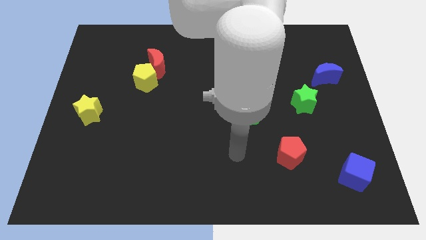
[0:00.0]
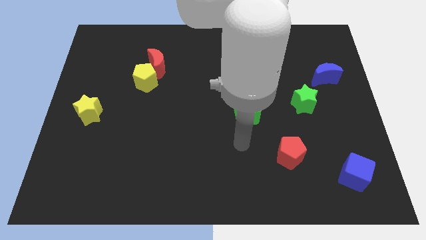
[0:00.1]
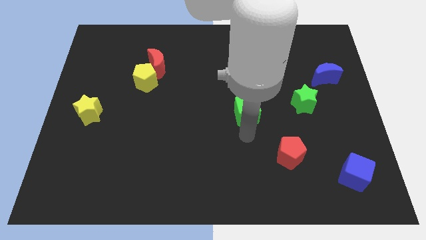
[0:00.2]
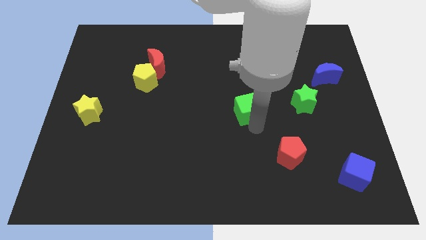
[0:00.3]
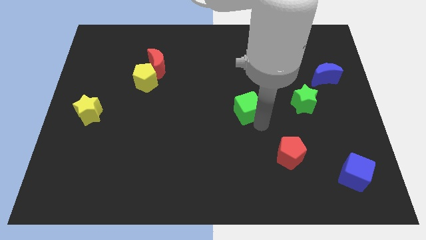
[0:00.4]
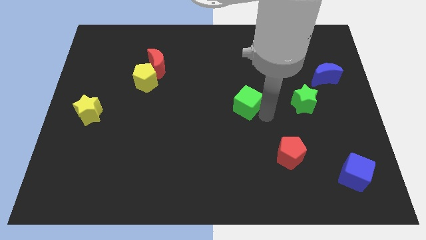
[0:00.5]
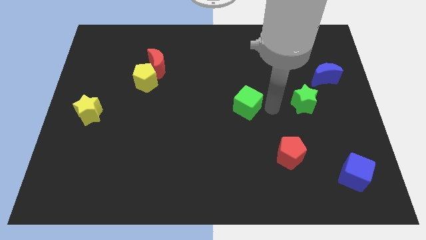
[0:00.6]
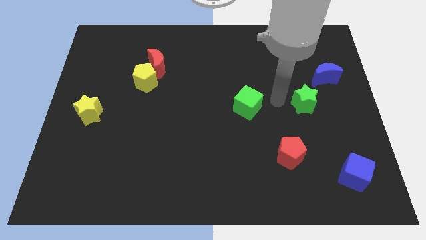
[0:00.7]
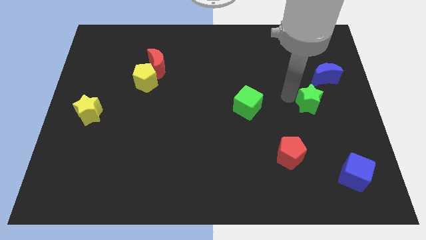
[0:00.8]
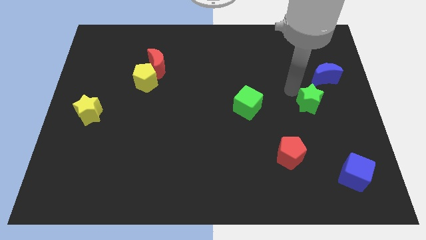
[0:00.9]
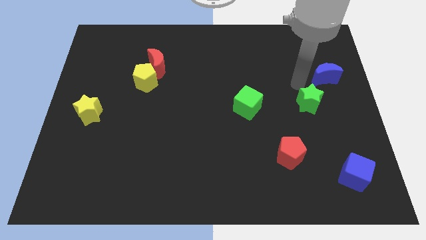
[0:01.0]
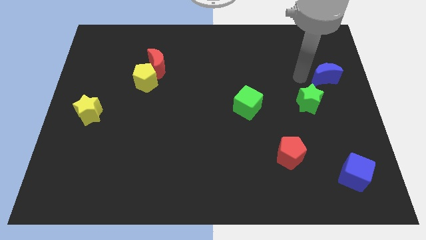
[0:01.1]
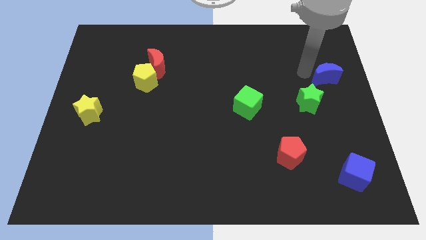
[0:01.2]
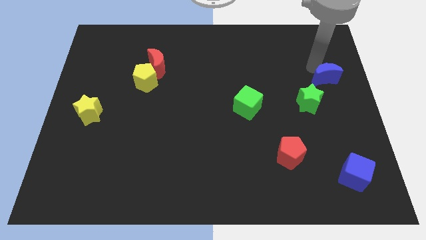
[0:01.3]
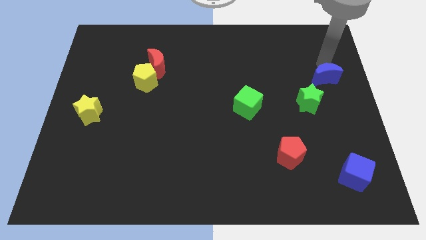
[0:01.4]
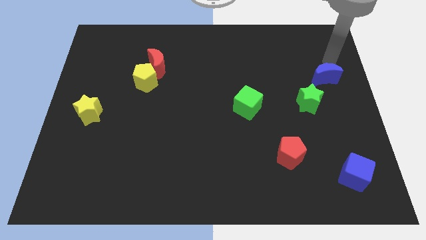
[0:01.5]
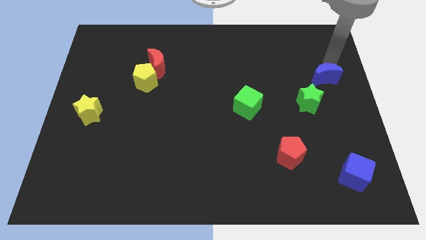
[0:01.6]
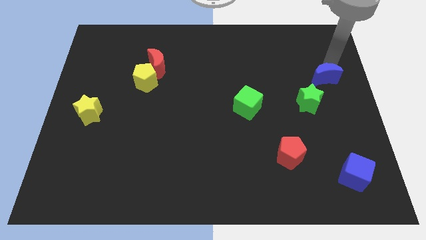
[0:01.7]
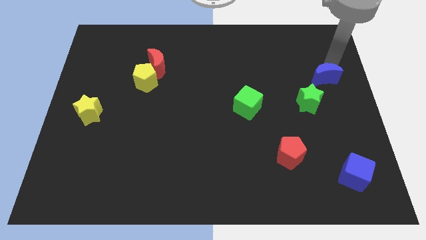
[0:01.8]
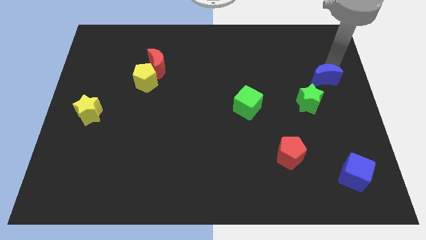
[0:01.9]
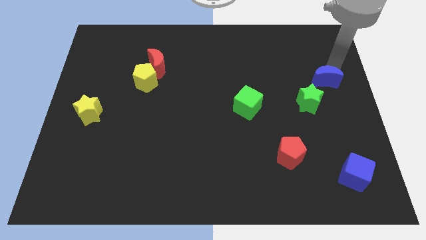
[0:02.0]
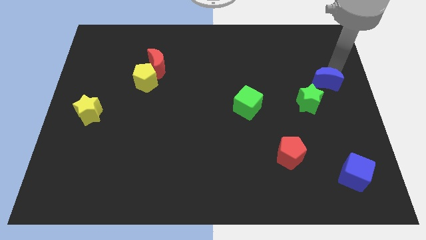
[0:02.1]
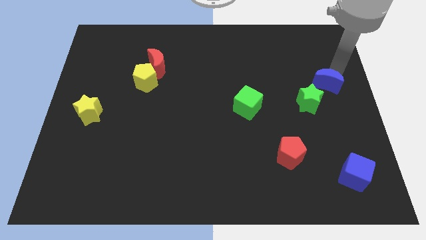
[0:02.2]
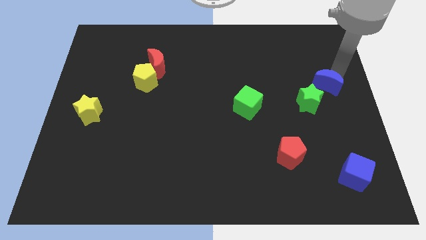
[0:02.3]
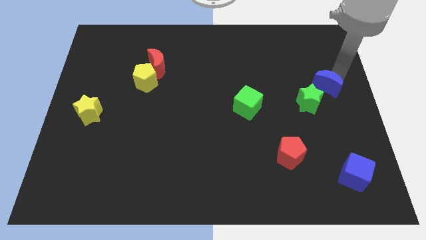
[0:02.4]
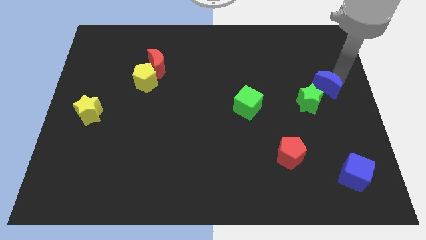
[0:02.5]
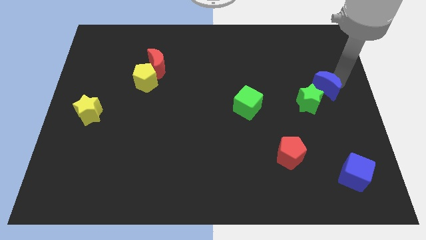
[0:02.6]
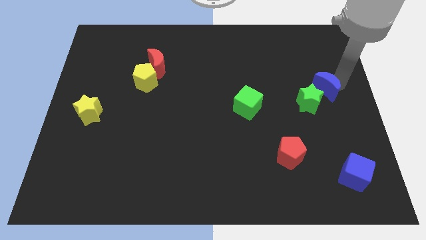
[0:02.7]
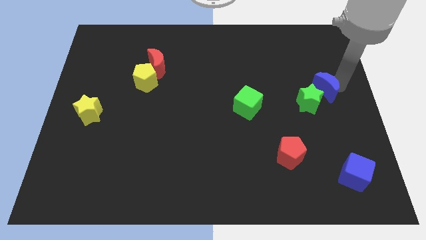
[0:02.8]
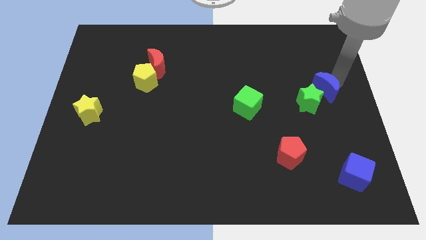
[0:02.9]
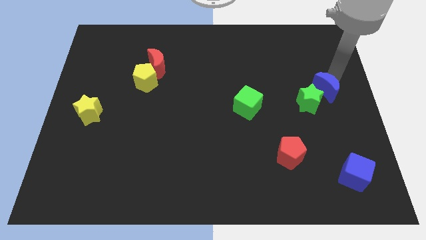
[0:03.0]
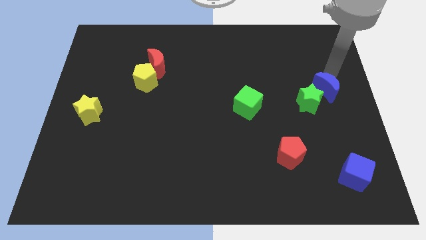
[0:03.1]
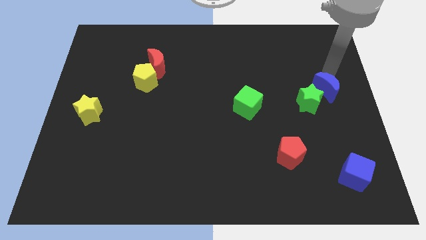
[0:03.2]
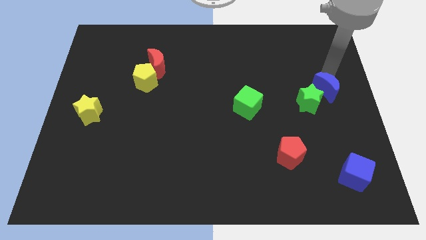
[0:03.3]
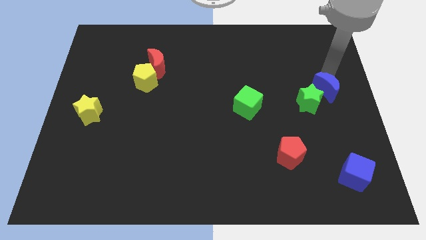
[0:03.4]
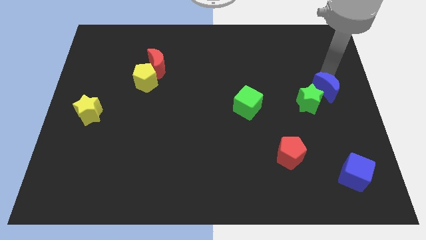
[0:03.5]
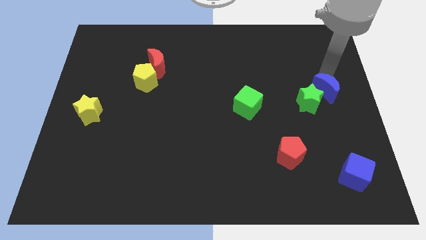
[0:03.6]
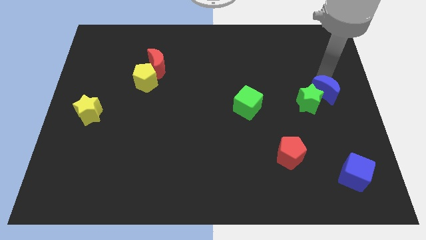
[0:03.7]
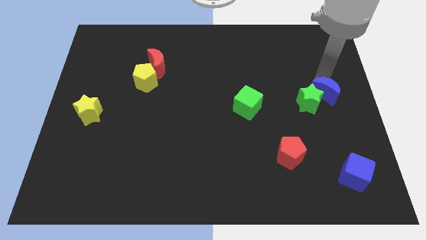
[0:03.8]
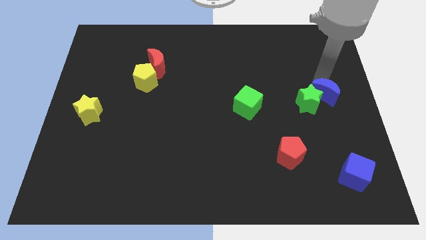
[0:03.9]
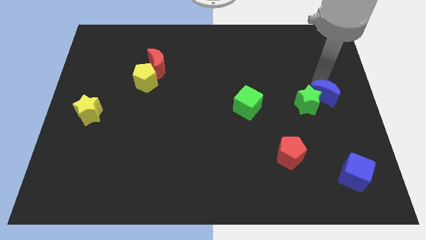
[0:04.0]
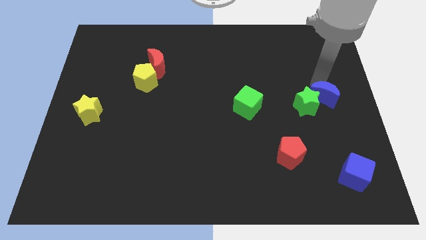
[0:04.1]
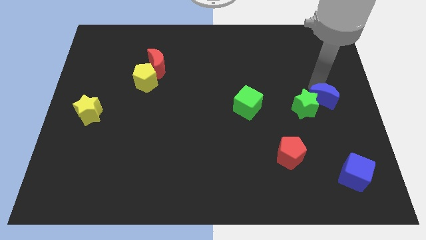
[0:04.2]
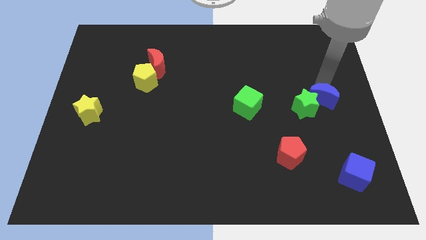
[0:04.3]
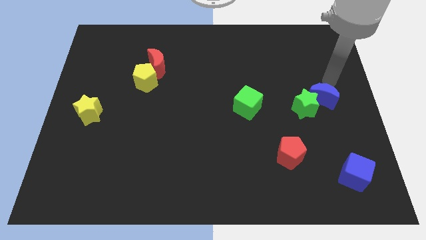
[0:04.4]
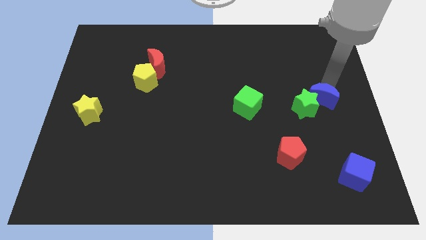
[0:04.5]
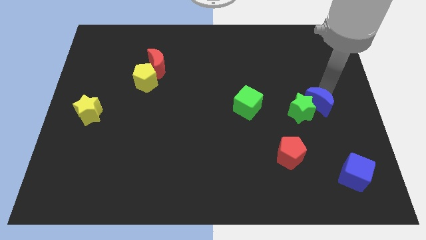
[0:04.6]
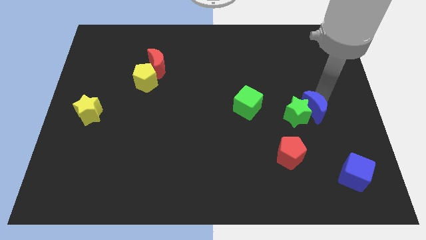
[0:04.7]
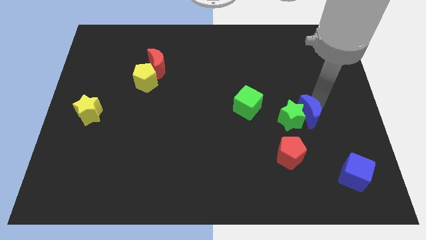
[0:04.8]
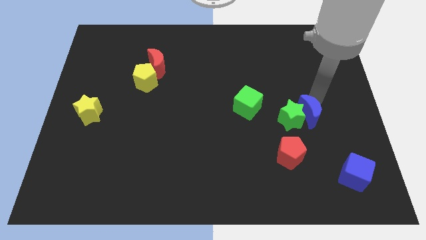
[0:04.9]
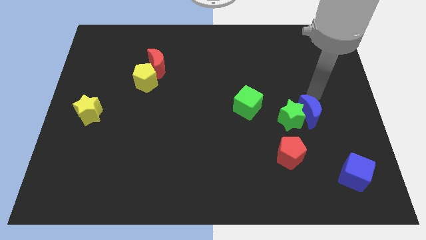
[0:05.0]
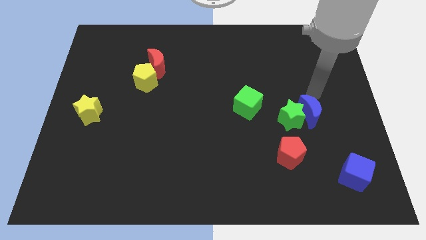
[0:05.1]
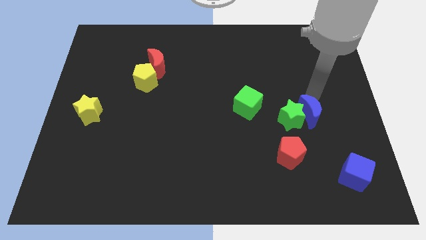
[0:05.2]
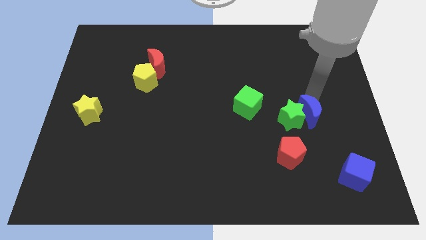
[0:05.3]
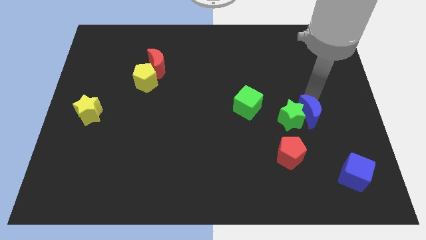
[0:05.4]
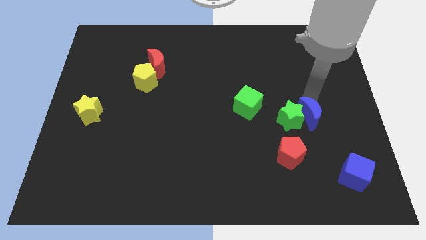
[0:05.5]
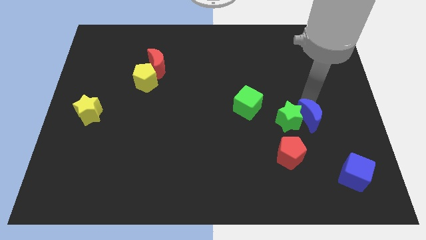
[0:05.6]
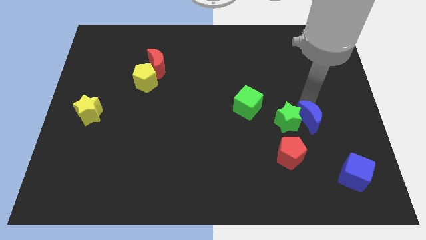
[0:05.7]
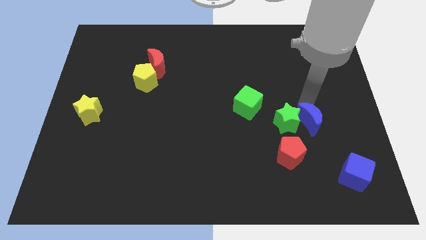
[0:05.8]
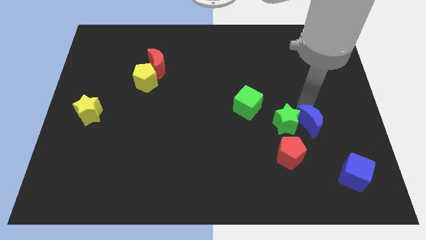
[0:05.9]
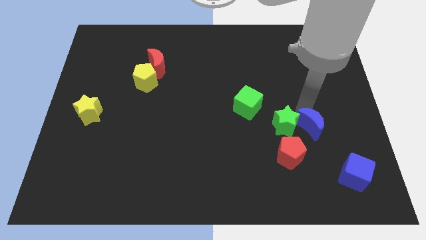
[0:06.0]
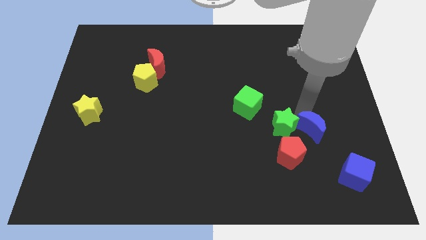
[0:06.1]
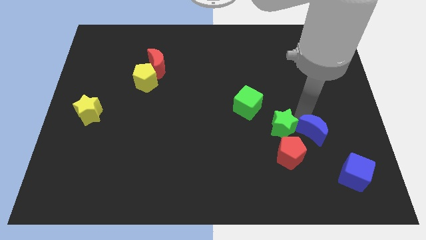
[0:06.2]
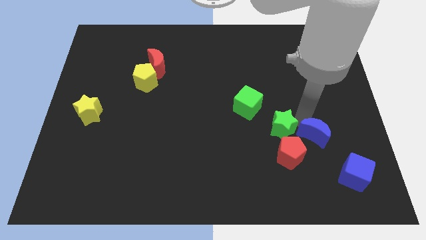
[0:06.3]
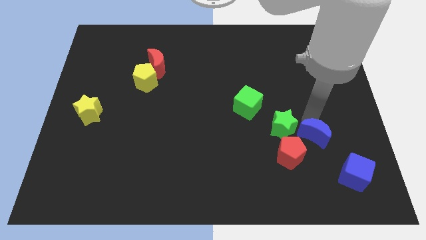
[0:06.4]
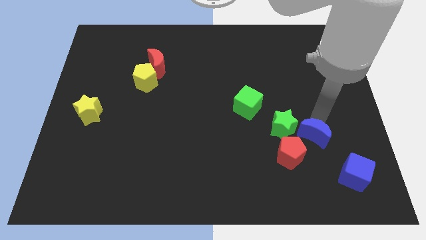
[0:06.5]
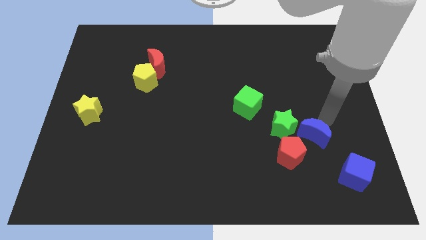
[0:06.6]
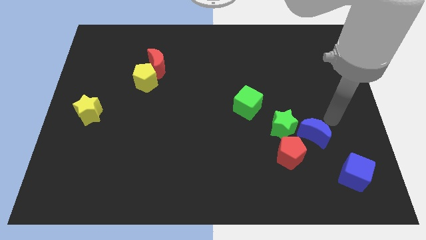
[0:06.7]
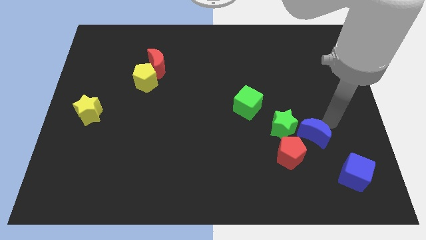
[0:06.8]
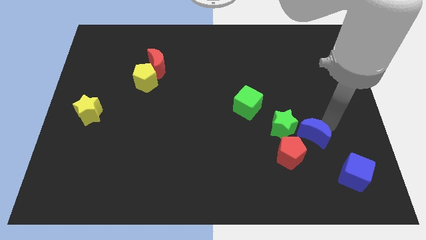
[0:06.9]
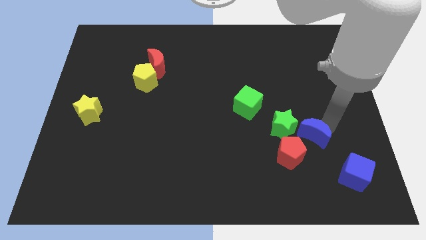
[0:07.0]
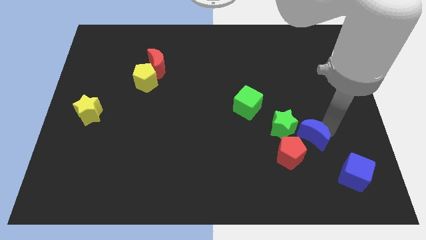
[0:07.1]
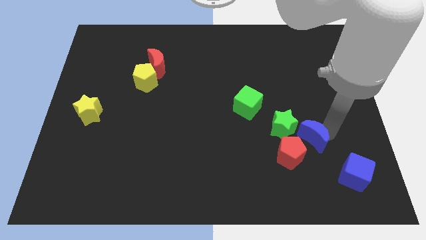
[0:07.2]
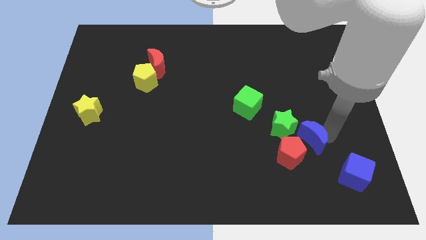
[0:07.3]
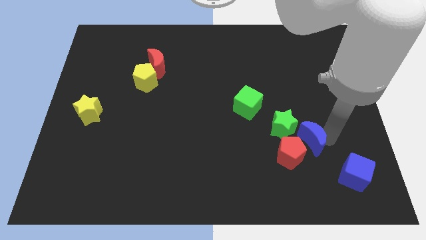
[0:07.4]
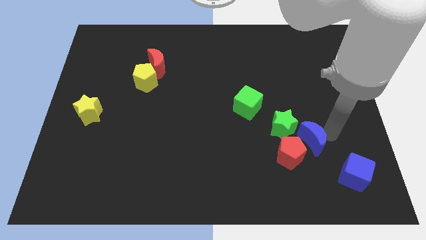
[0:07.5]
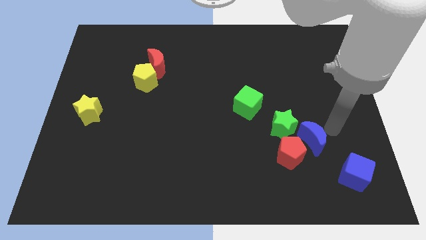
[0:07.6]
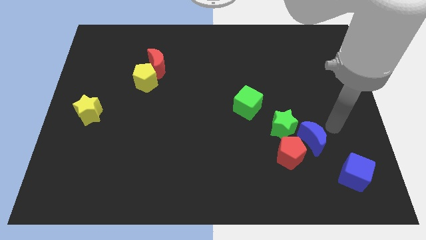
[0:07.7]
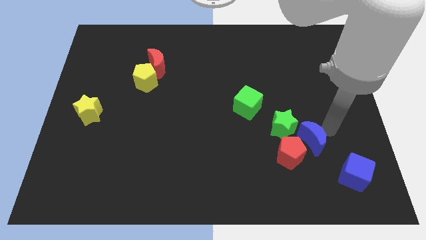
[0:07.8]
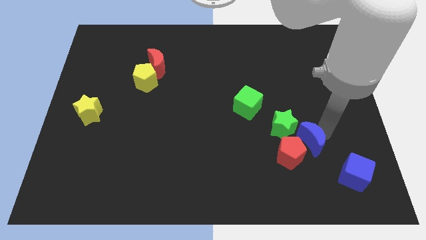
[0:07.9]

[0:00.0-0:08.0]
slide the blue moon close to the red pentagon
